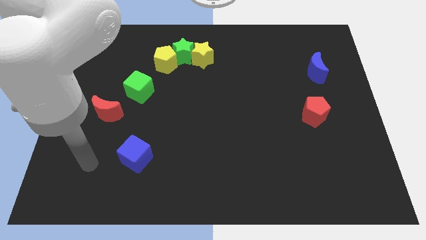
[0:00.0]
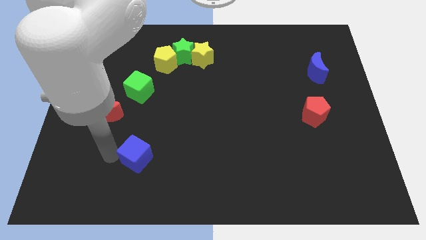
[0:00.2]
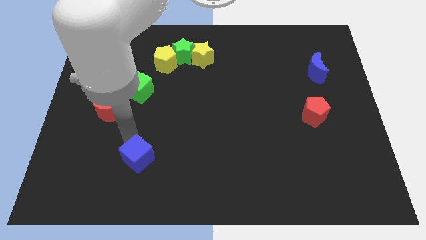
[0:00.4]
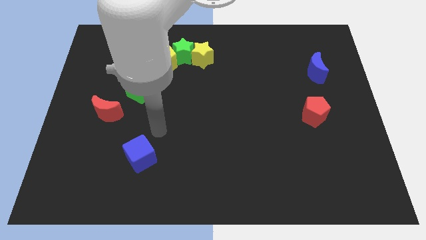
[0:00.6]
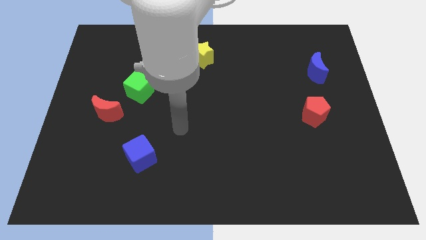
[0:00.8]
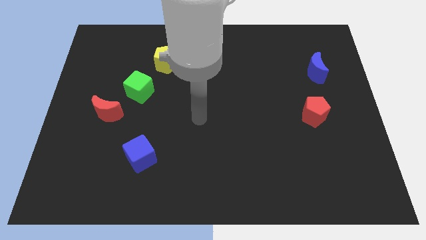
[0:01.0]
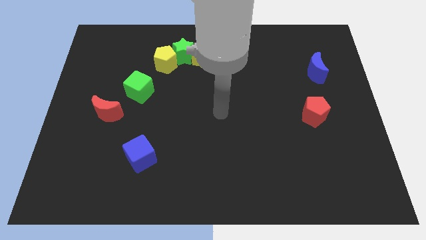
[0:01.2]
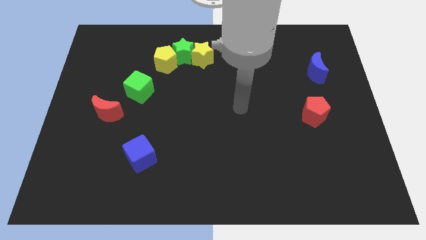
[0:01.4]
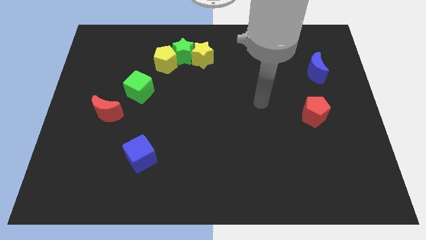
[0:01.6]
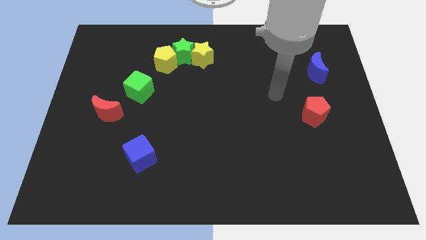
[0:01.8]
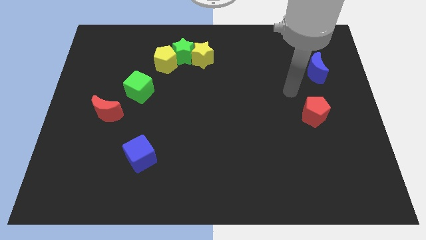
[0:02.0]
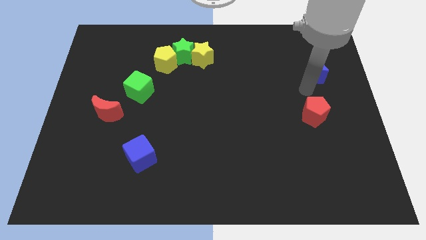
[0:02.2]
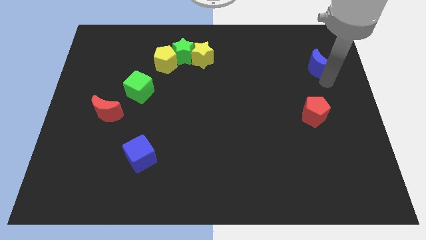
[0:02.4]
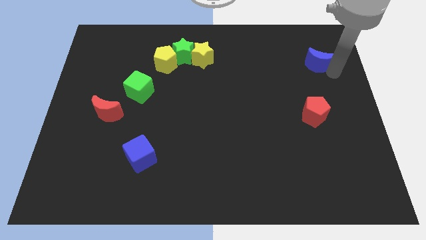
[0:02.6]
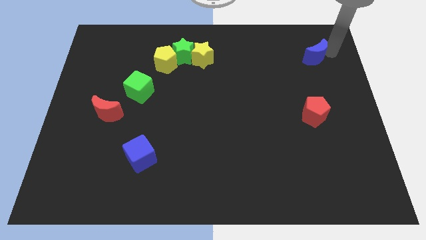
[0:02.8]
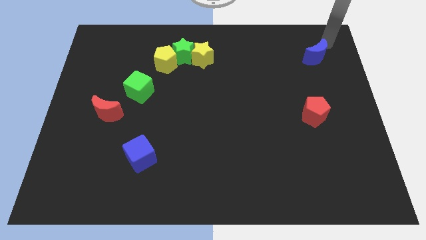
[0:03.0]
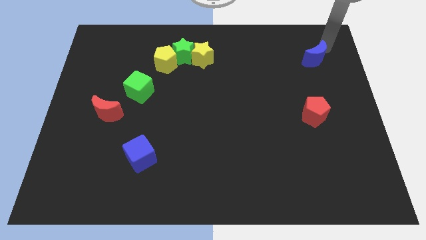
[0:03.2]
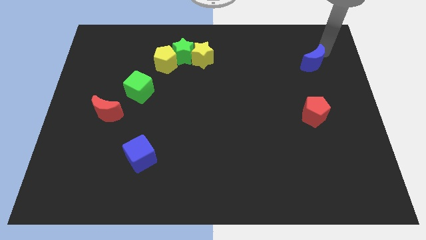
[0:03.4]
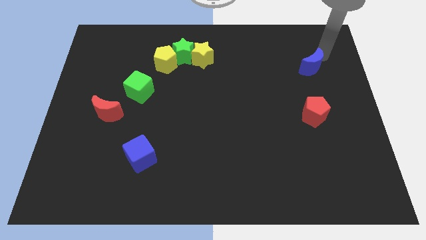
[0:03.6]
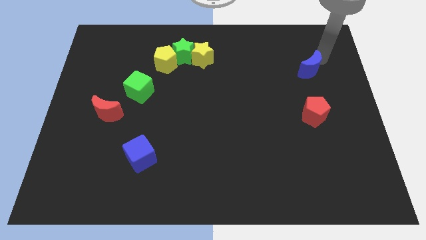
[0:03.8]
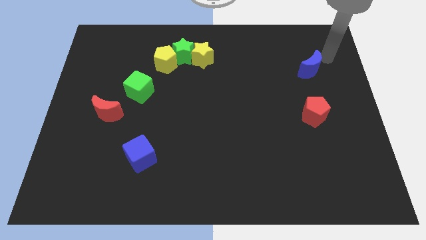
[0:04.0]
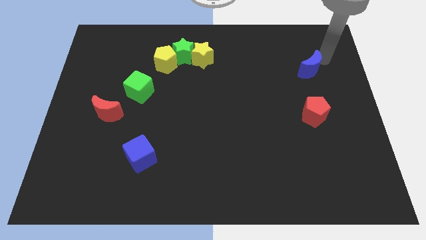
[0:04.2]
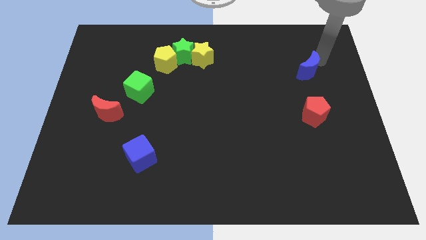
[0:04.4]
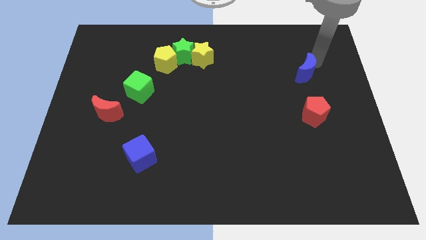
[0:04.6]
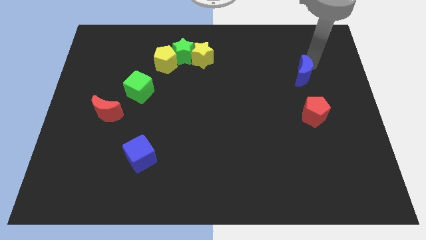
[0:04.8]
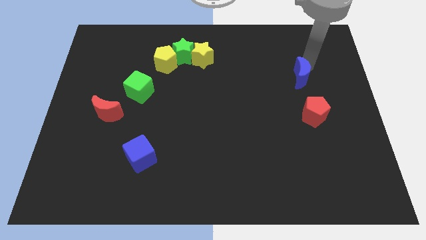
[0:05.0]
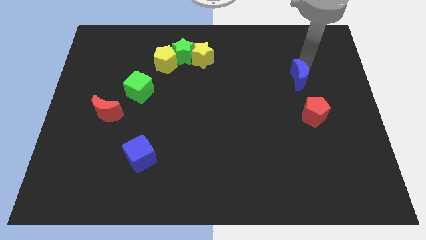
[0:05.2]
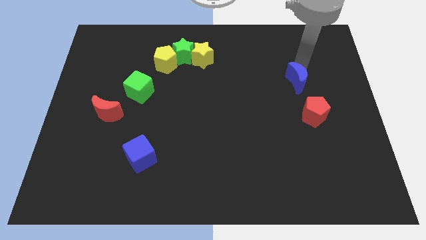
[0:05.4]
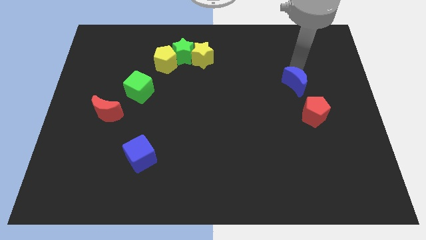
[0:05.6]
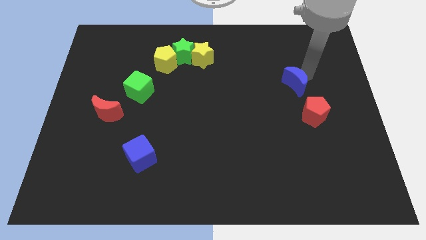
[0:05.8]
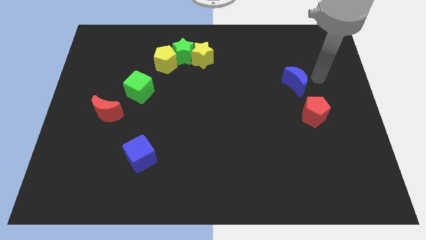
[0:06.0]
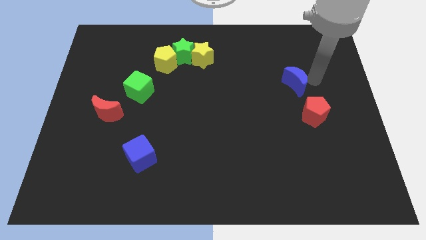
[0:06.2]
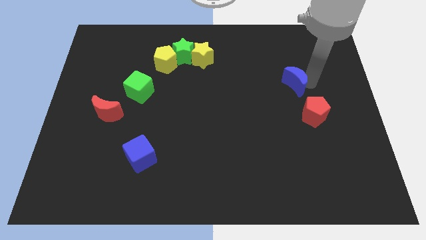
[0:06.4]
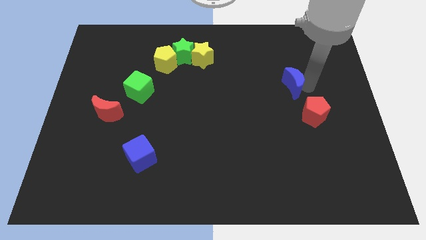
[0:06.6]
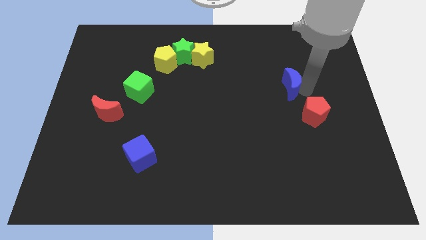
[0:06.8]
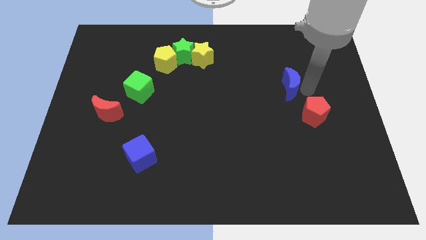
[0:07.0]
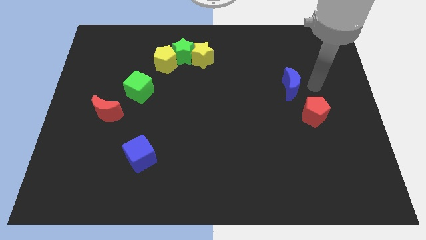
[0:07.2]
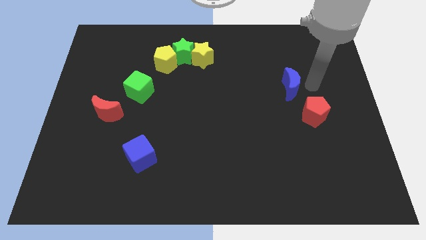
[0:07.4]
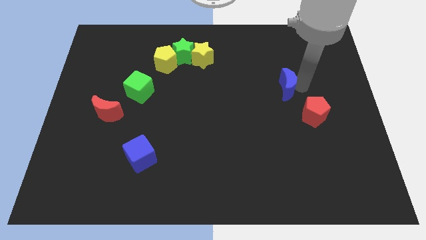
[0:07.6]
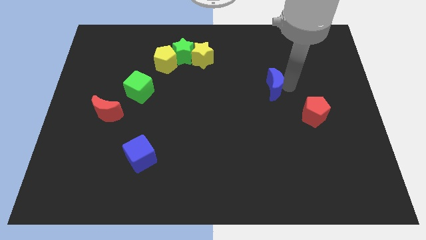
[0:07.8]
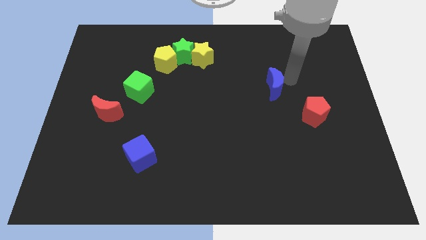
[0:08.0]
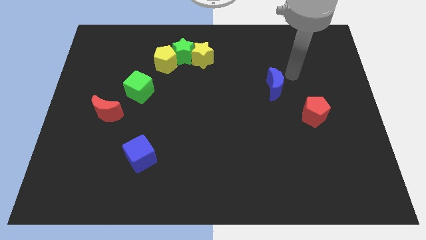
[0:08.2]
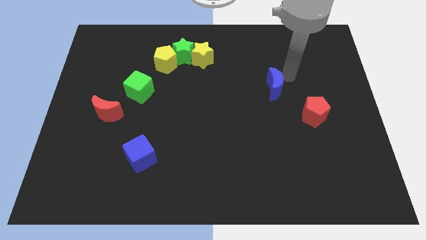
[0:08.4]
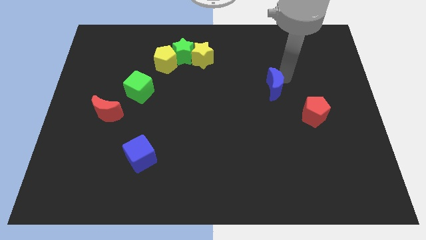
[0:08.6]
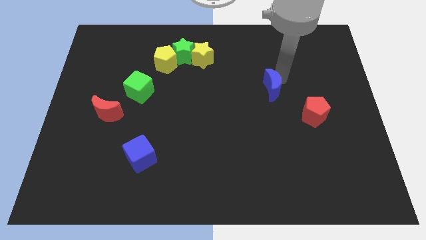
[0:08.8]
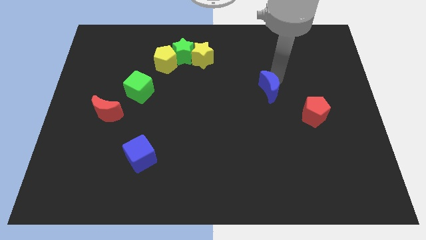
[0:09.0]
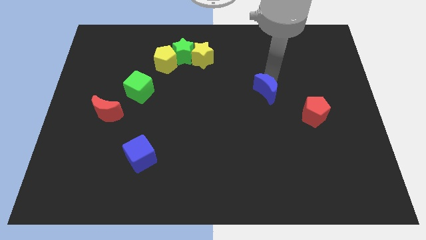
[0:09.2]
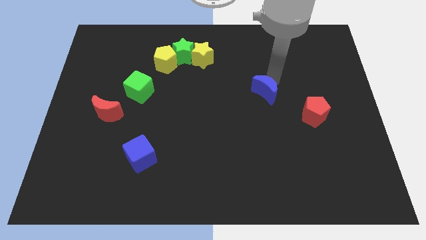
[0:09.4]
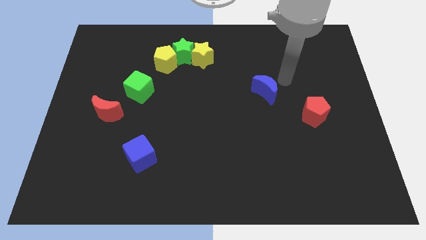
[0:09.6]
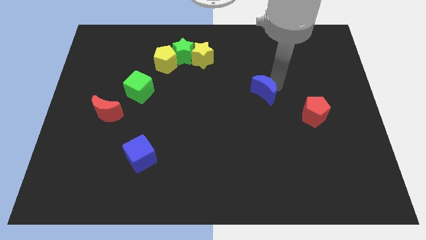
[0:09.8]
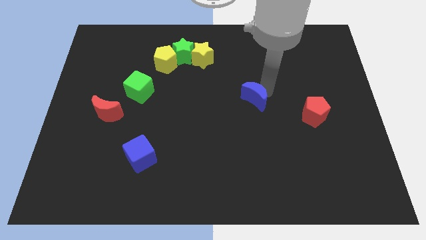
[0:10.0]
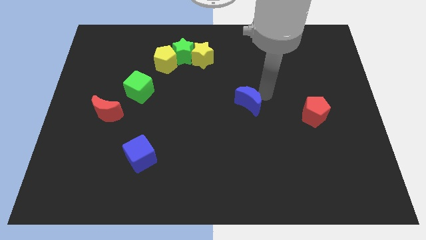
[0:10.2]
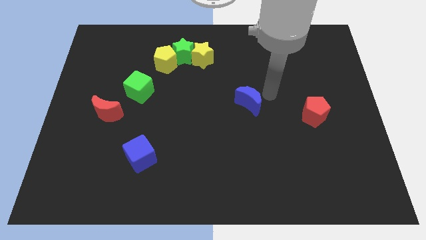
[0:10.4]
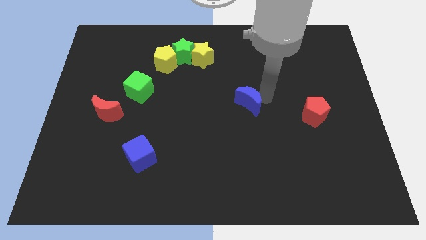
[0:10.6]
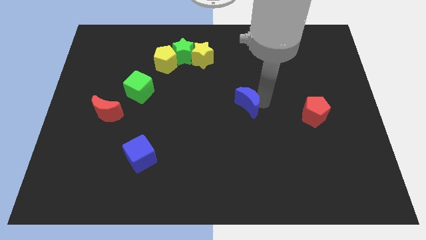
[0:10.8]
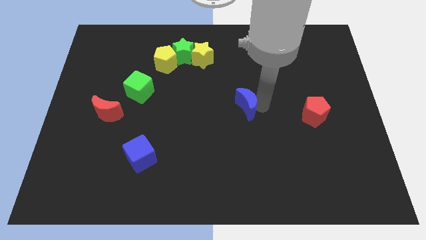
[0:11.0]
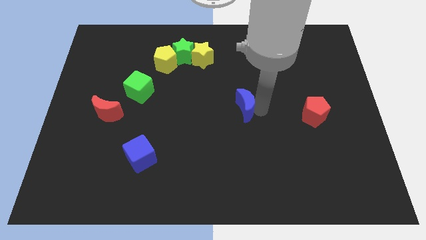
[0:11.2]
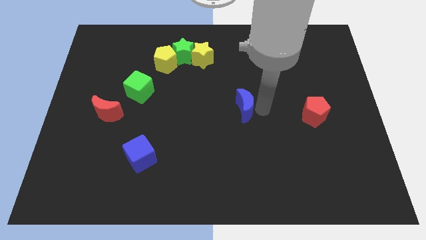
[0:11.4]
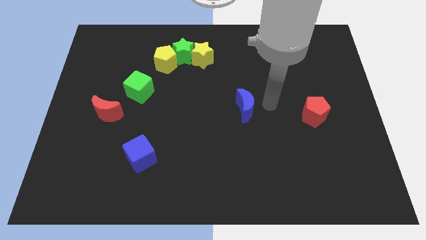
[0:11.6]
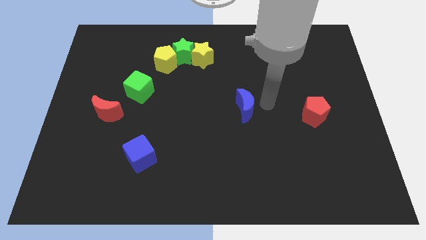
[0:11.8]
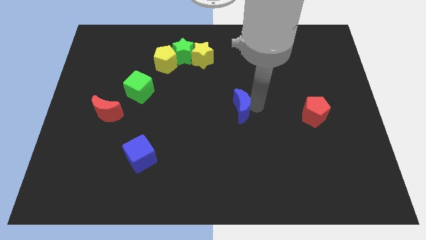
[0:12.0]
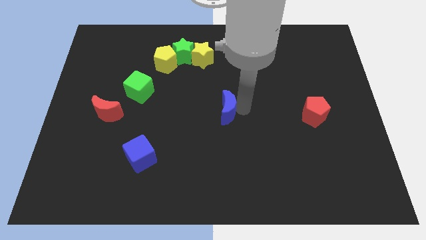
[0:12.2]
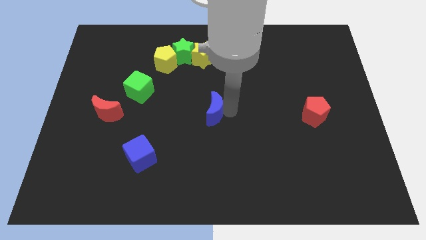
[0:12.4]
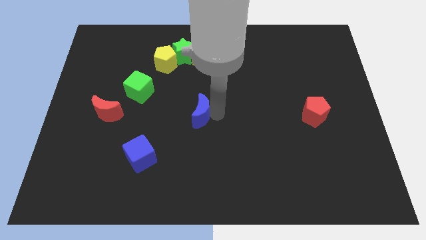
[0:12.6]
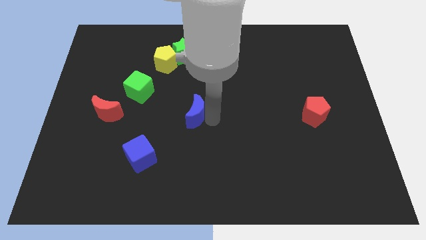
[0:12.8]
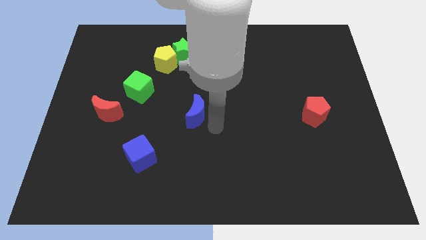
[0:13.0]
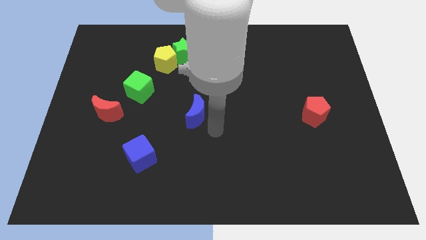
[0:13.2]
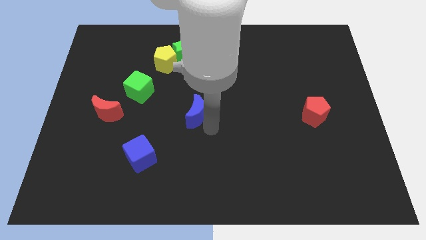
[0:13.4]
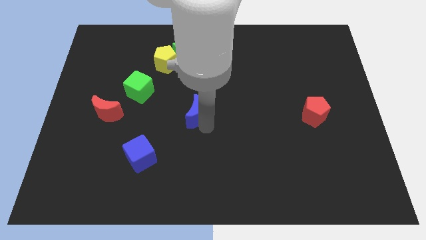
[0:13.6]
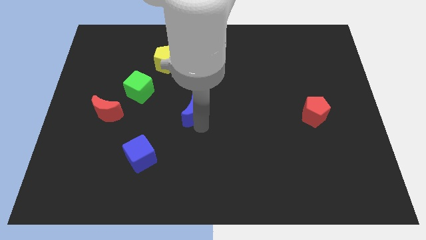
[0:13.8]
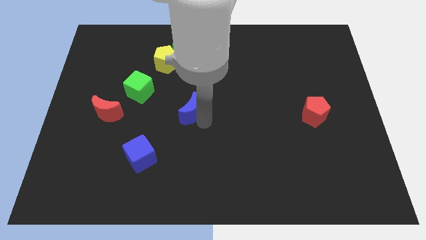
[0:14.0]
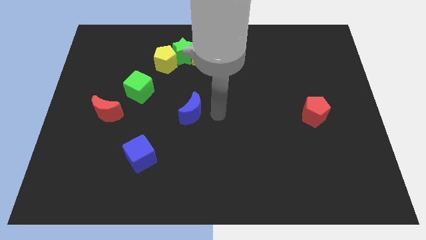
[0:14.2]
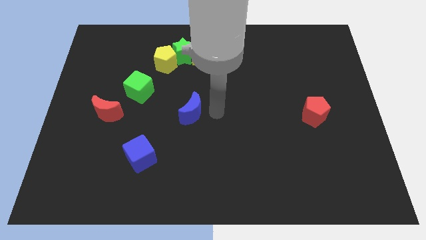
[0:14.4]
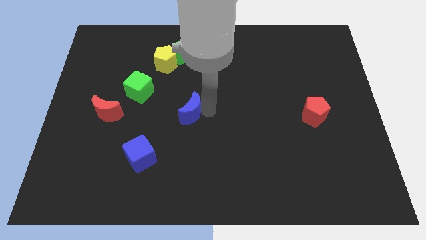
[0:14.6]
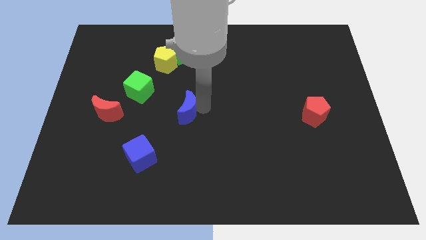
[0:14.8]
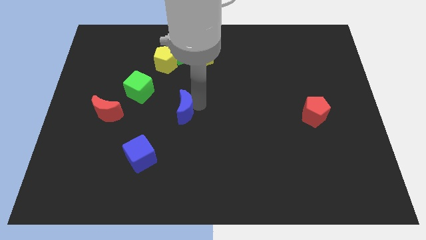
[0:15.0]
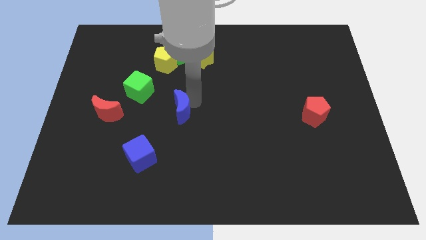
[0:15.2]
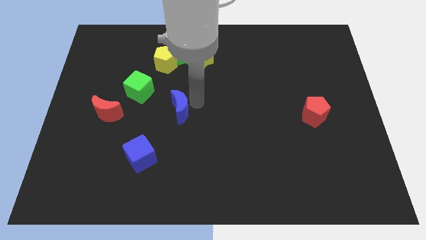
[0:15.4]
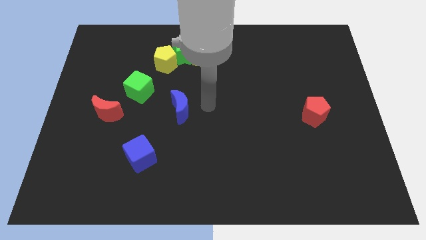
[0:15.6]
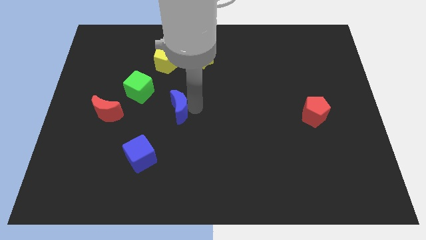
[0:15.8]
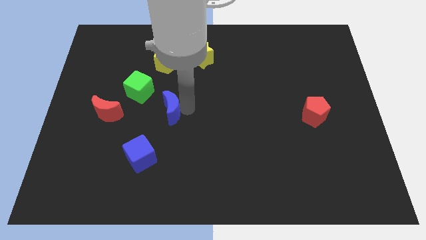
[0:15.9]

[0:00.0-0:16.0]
put the blue moon right of the red moon
